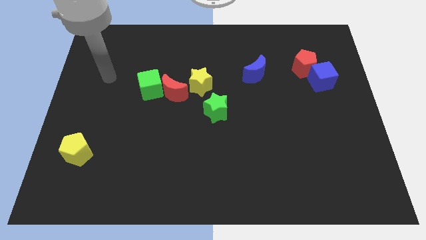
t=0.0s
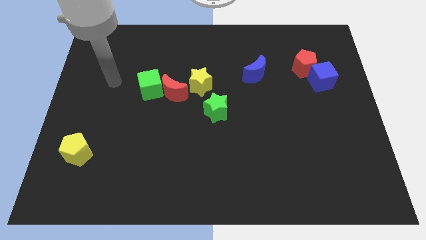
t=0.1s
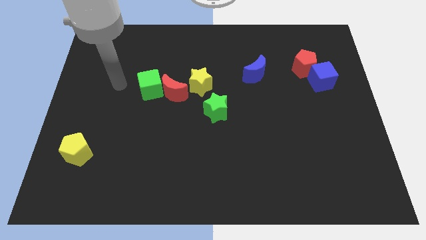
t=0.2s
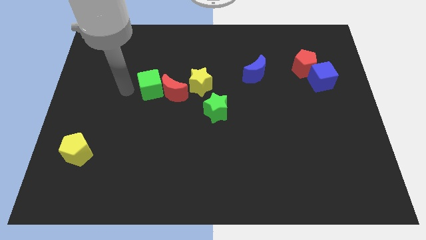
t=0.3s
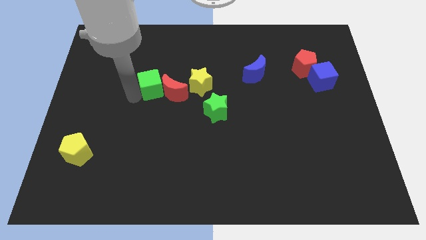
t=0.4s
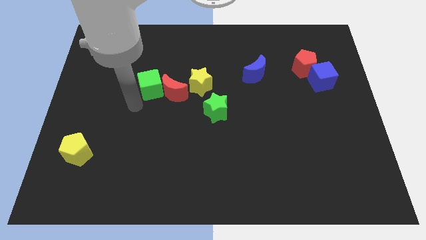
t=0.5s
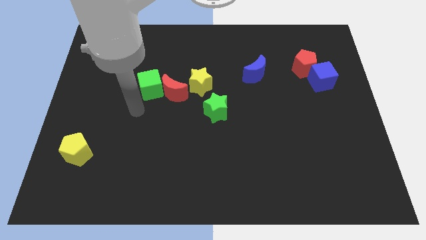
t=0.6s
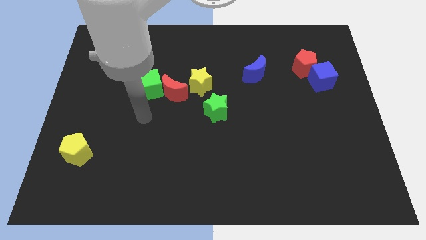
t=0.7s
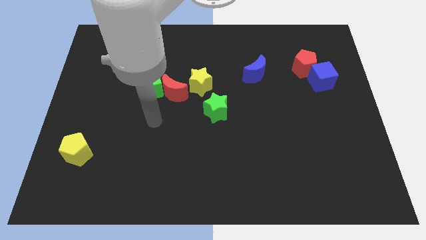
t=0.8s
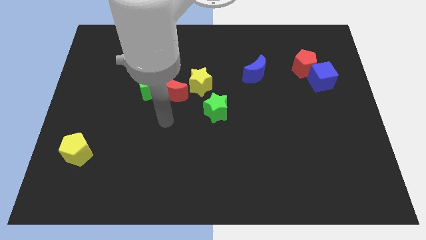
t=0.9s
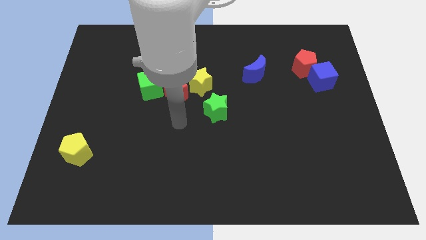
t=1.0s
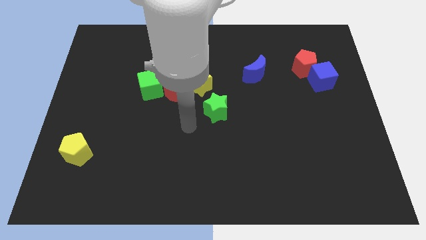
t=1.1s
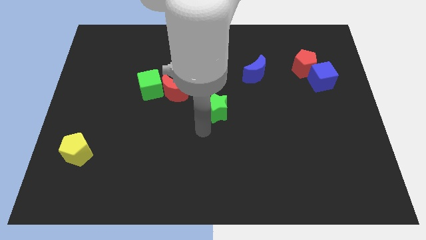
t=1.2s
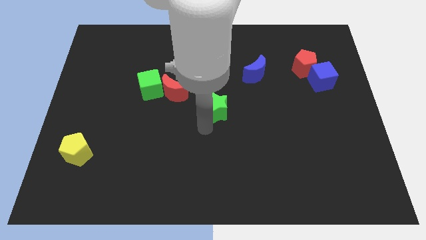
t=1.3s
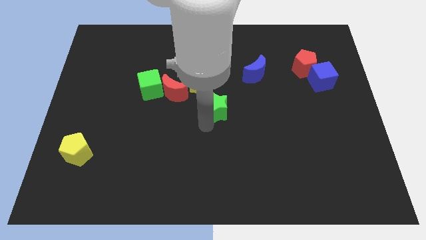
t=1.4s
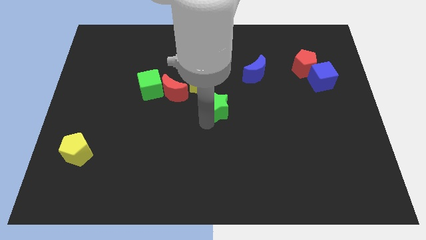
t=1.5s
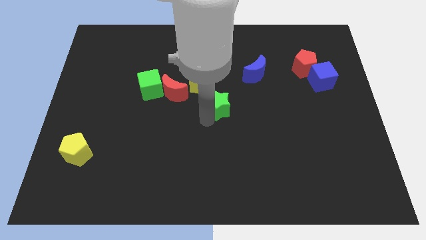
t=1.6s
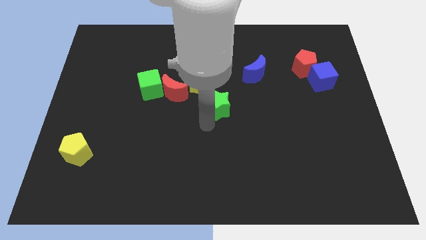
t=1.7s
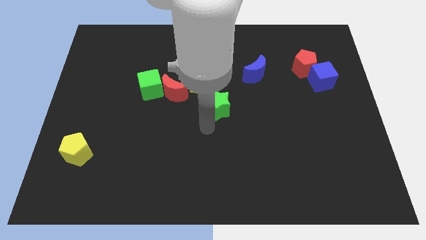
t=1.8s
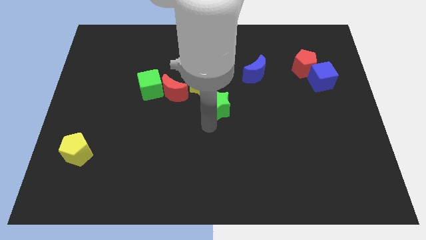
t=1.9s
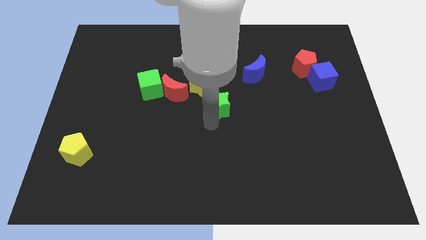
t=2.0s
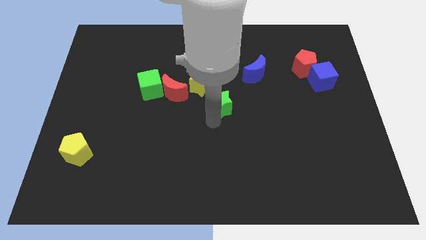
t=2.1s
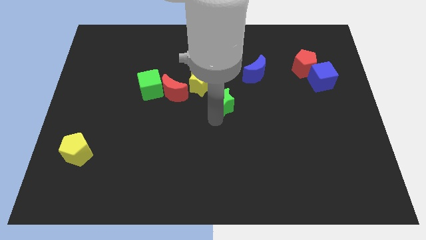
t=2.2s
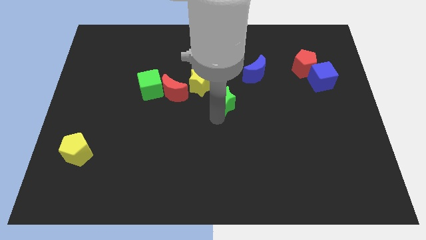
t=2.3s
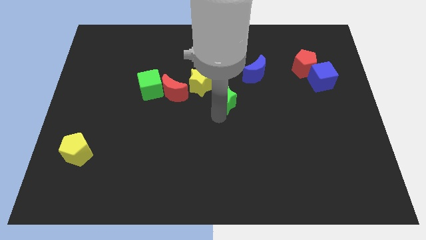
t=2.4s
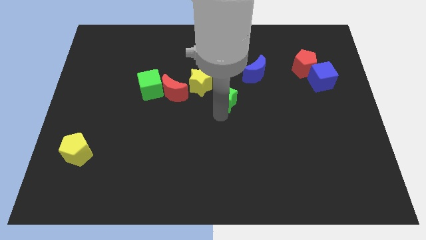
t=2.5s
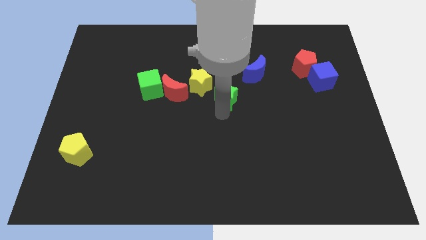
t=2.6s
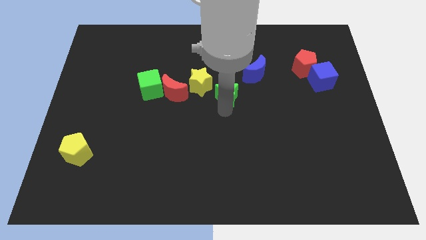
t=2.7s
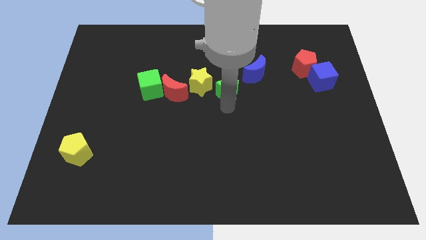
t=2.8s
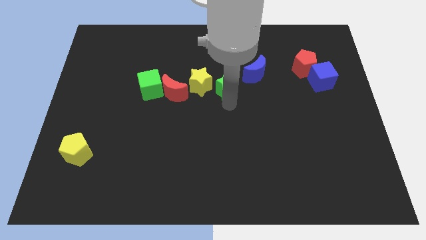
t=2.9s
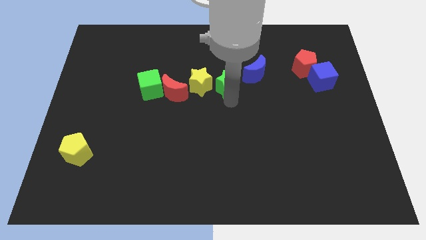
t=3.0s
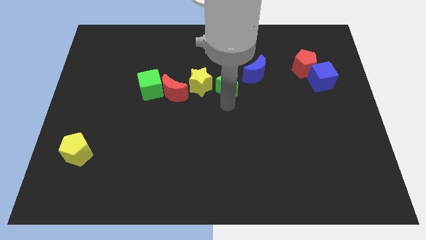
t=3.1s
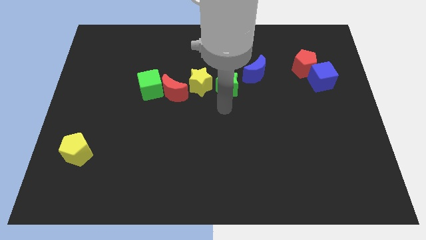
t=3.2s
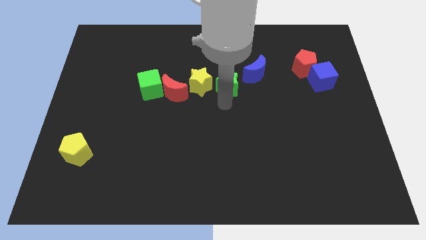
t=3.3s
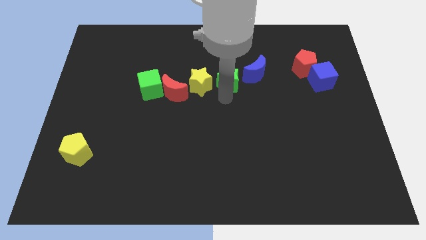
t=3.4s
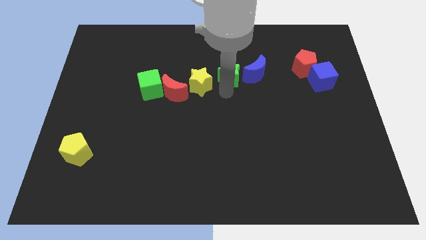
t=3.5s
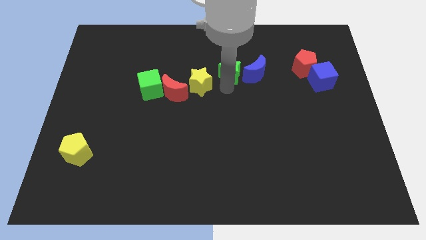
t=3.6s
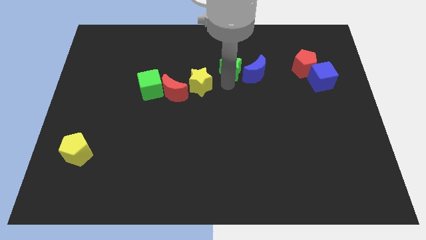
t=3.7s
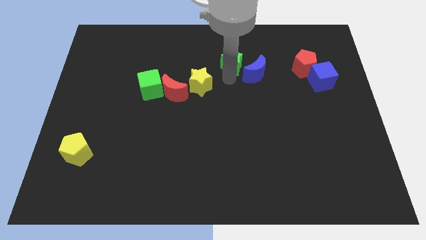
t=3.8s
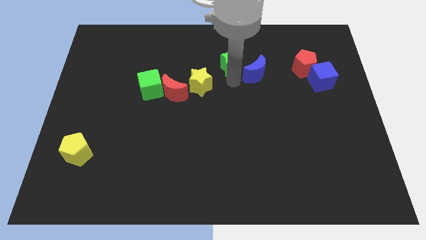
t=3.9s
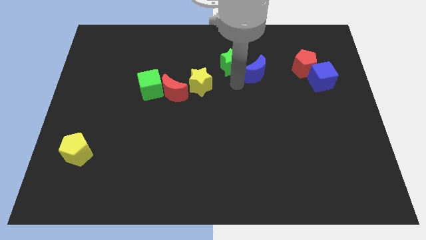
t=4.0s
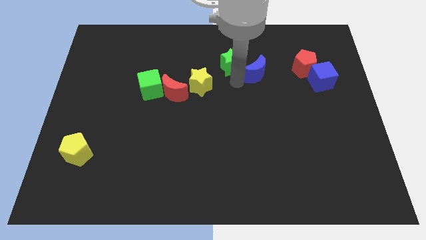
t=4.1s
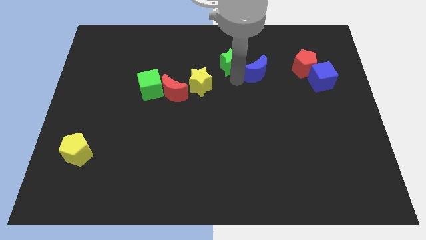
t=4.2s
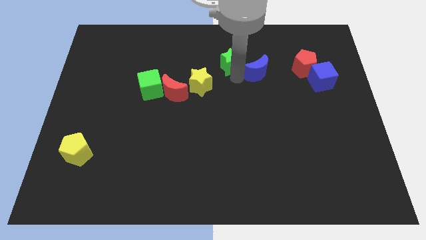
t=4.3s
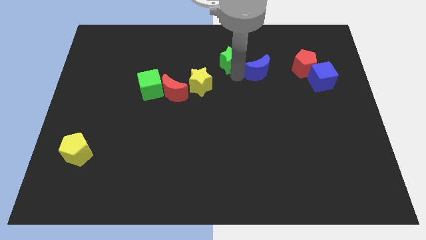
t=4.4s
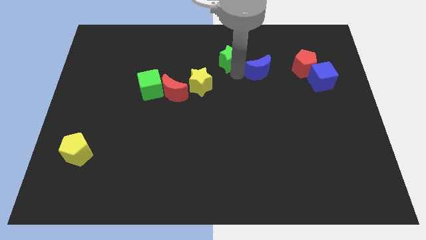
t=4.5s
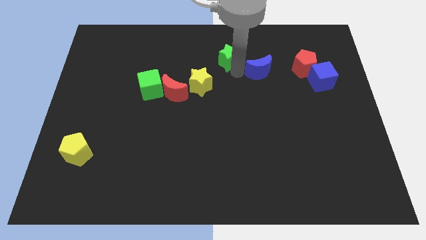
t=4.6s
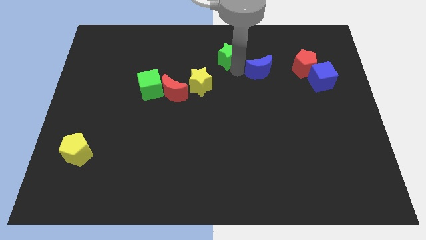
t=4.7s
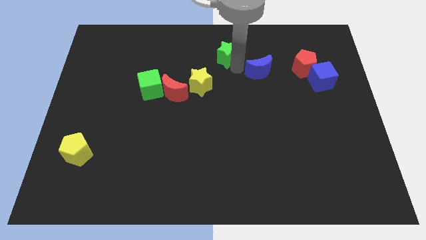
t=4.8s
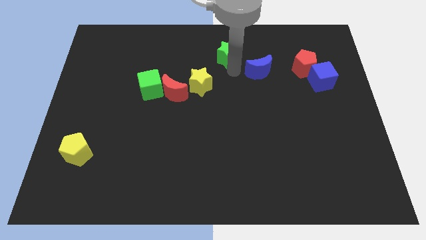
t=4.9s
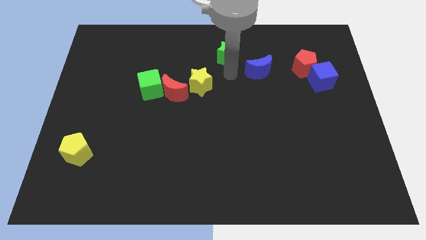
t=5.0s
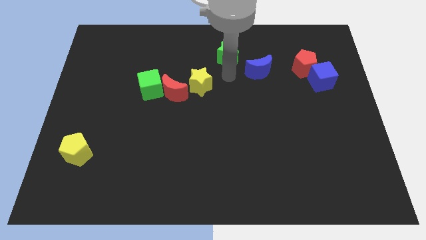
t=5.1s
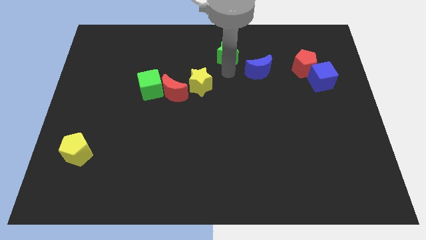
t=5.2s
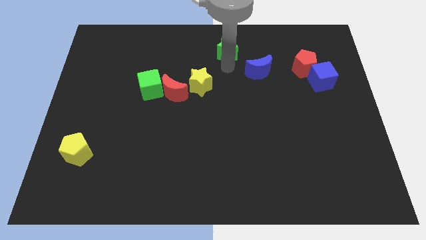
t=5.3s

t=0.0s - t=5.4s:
move the green star to the top side

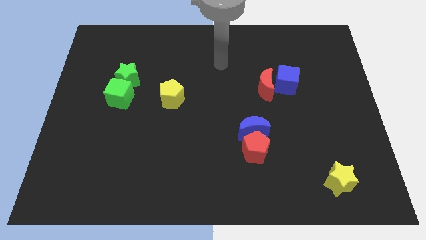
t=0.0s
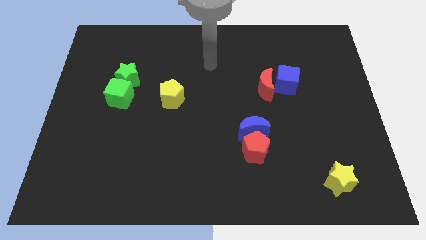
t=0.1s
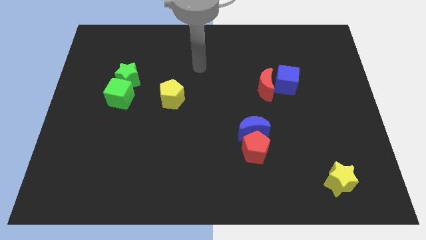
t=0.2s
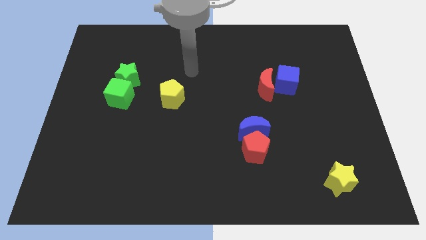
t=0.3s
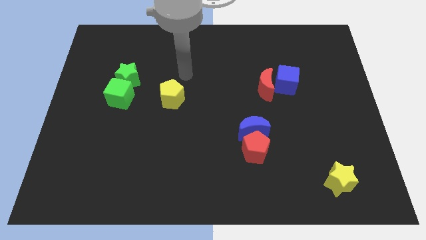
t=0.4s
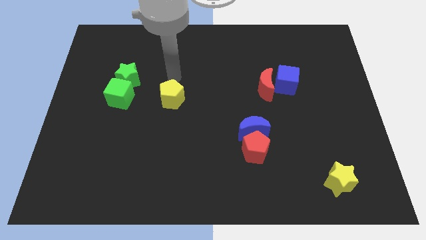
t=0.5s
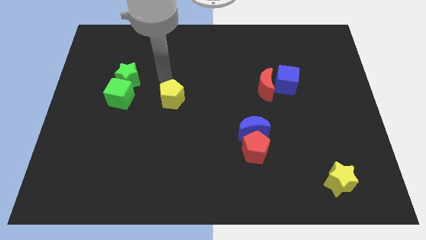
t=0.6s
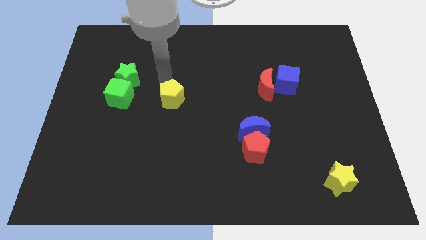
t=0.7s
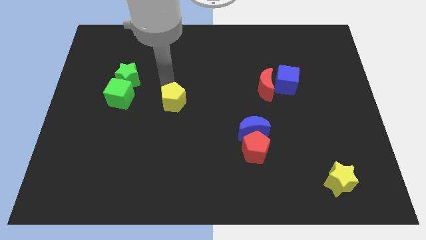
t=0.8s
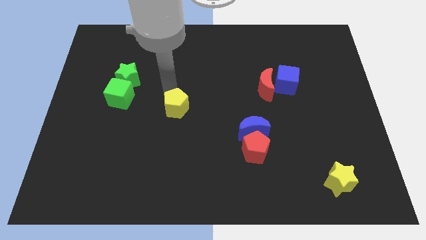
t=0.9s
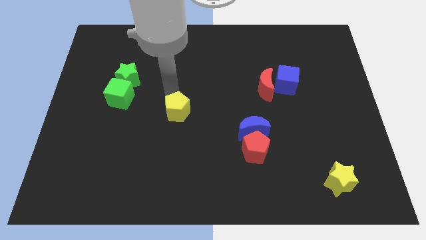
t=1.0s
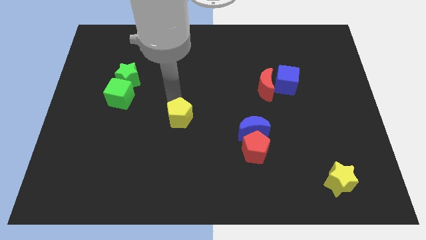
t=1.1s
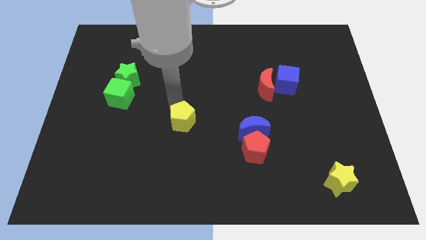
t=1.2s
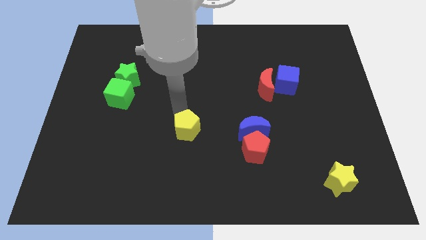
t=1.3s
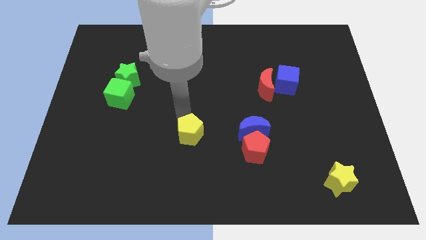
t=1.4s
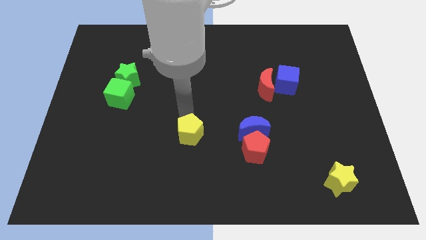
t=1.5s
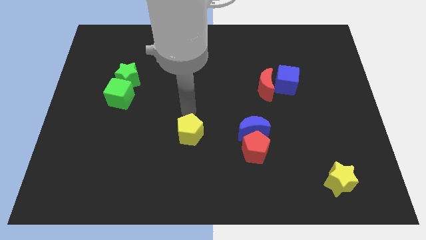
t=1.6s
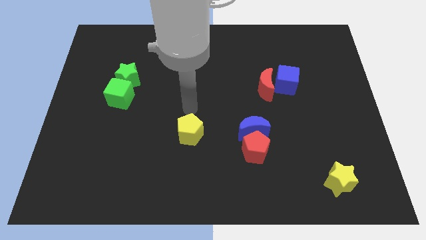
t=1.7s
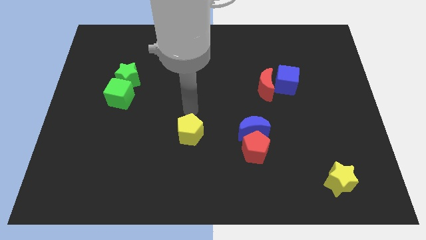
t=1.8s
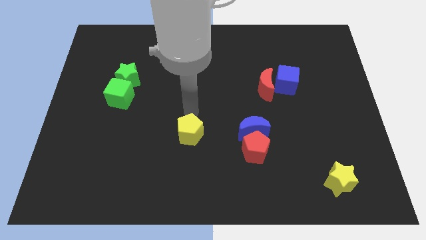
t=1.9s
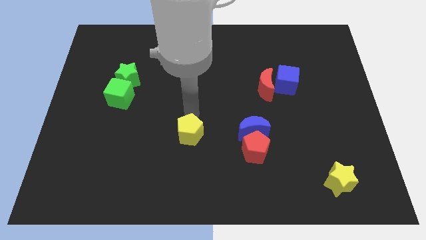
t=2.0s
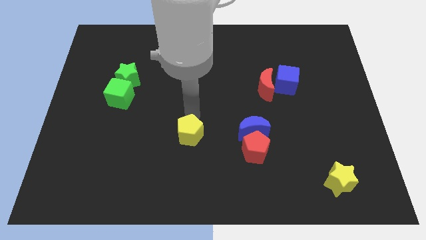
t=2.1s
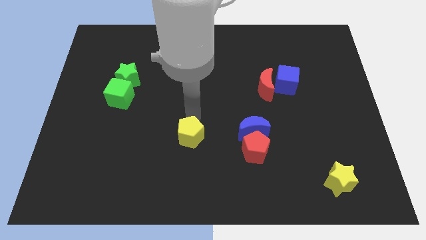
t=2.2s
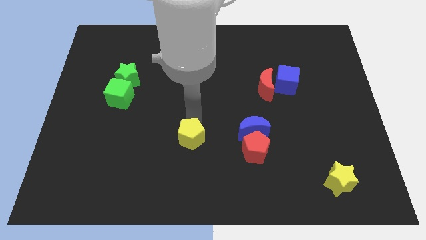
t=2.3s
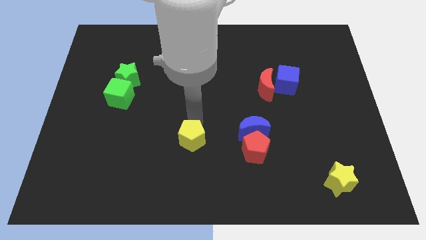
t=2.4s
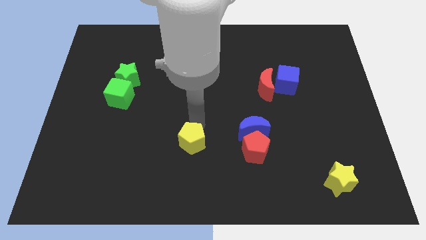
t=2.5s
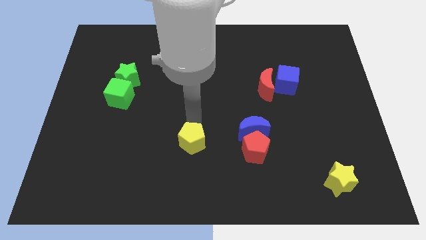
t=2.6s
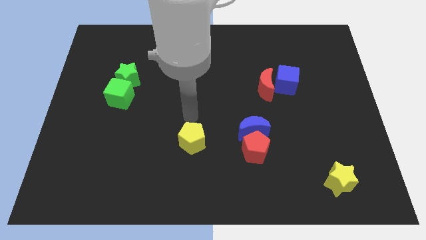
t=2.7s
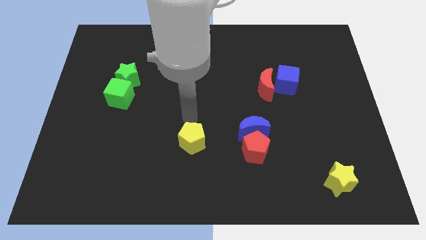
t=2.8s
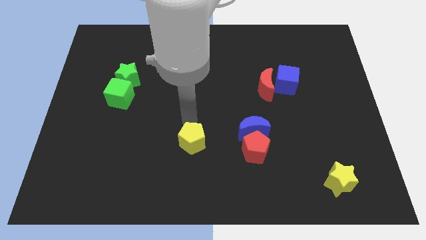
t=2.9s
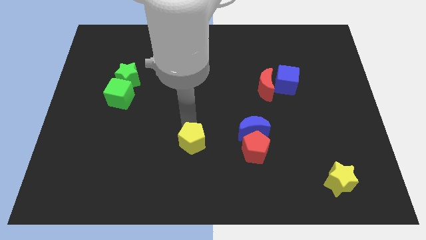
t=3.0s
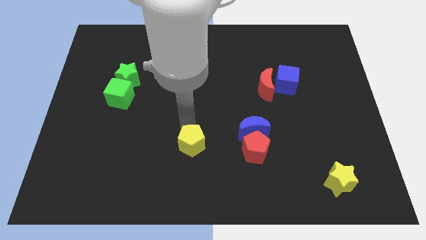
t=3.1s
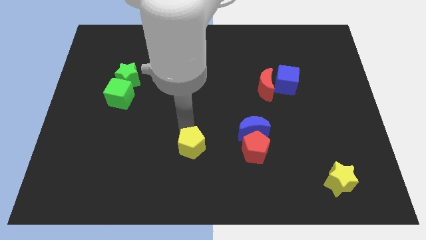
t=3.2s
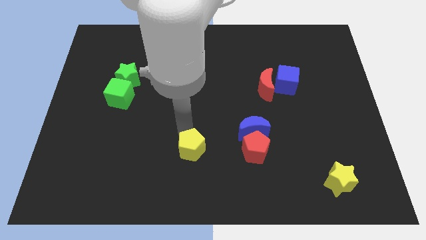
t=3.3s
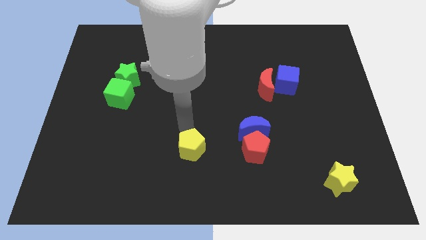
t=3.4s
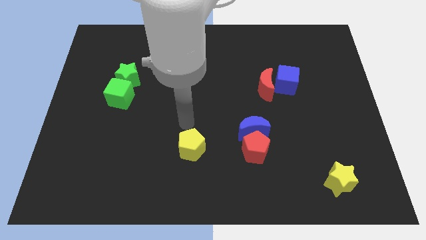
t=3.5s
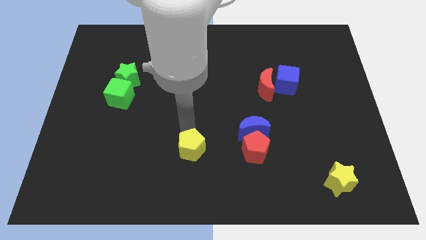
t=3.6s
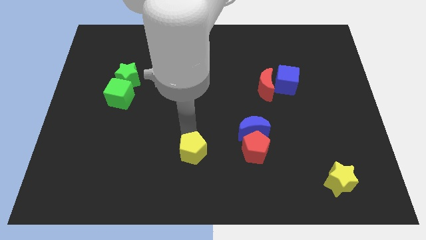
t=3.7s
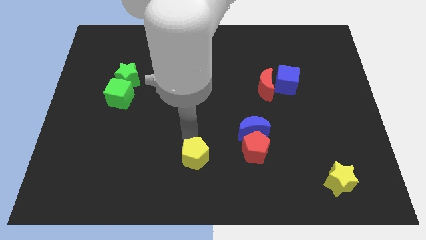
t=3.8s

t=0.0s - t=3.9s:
put the yellow pentagon to the bottom
